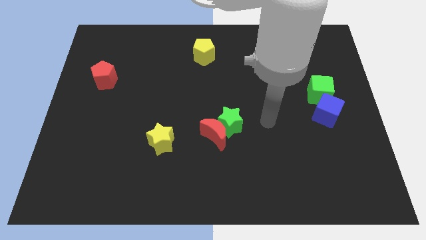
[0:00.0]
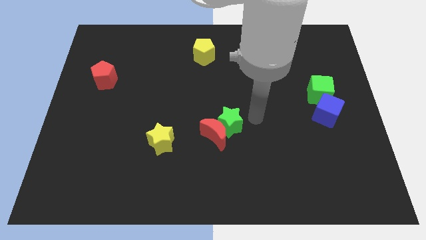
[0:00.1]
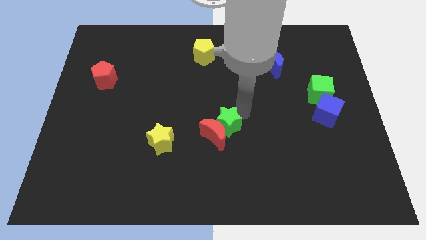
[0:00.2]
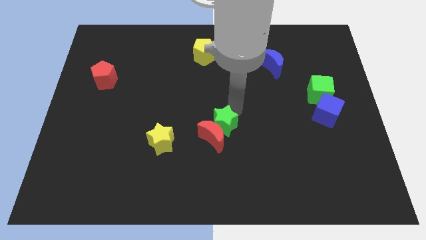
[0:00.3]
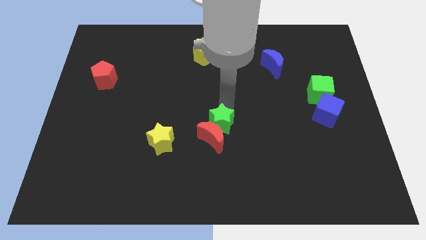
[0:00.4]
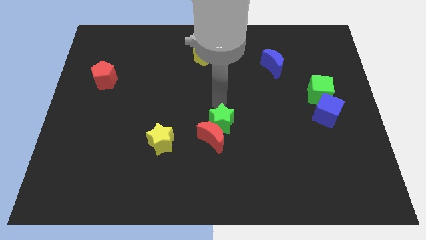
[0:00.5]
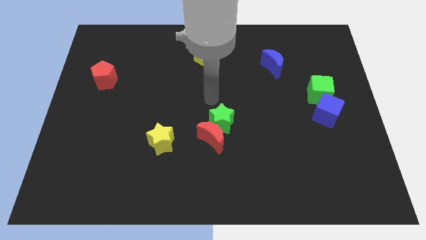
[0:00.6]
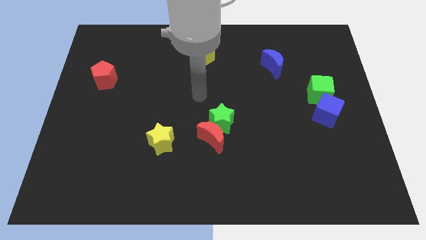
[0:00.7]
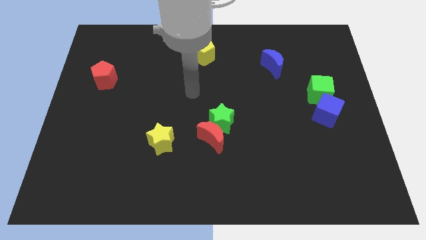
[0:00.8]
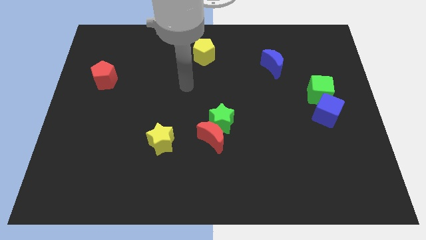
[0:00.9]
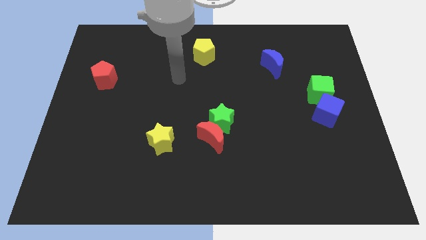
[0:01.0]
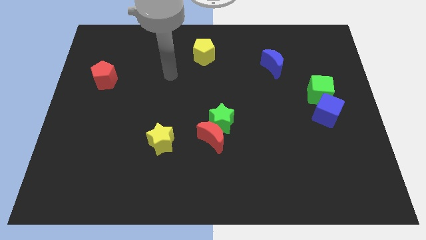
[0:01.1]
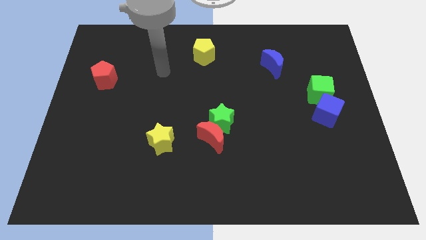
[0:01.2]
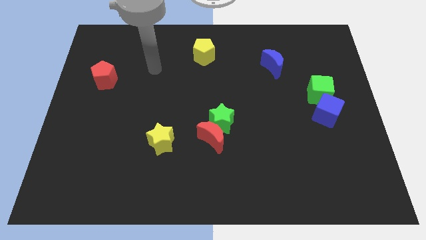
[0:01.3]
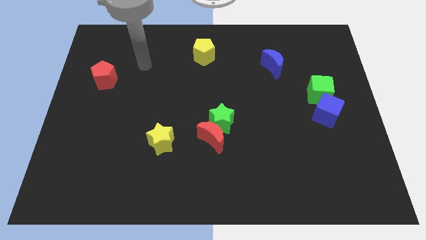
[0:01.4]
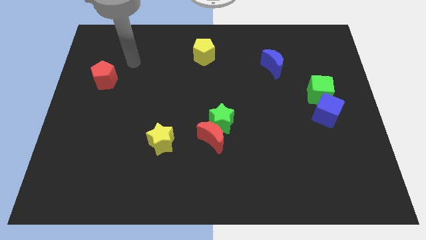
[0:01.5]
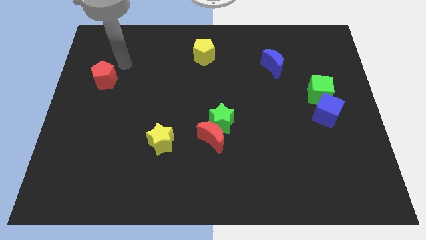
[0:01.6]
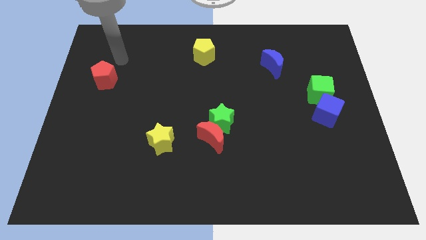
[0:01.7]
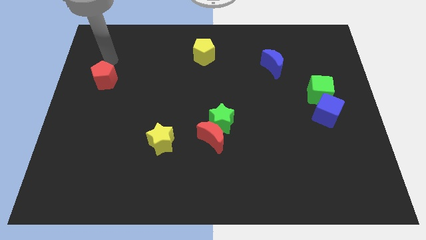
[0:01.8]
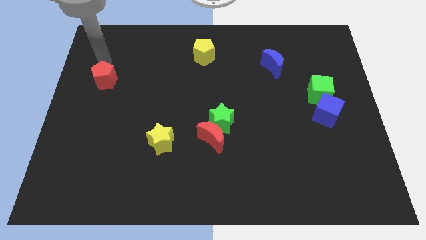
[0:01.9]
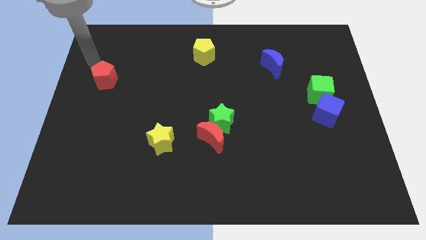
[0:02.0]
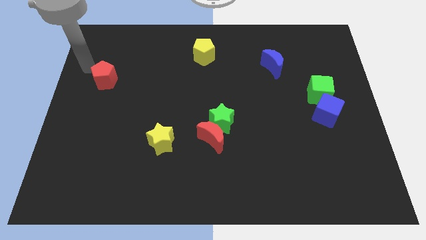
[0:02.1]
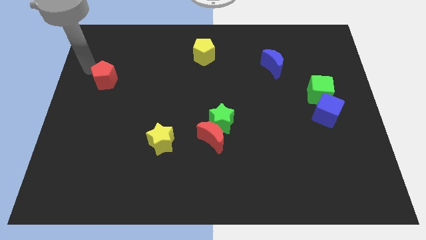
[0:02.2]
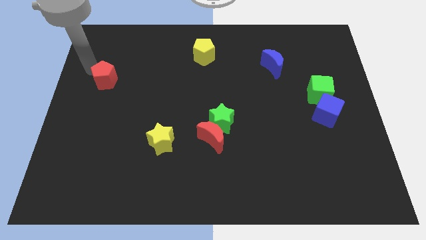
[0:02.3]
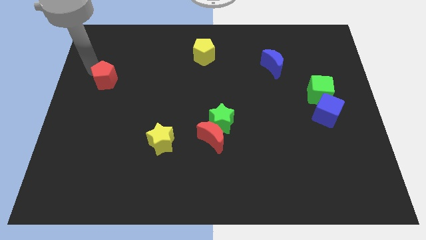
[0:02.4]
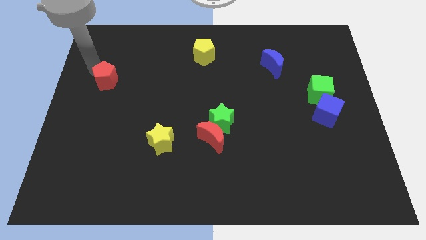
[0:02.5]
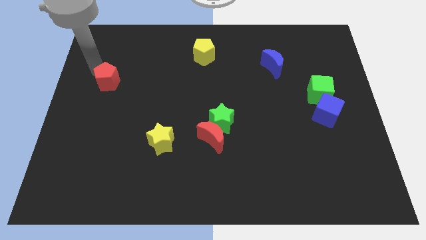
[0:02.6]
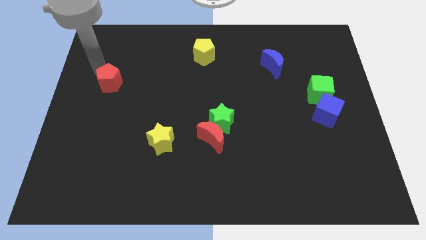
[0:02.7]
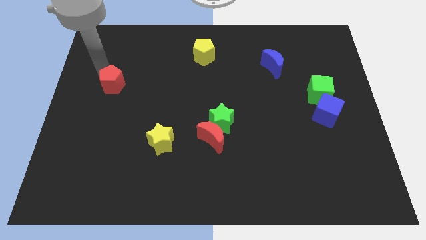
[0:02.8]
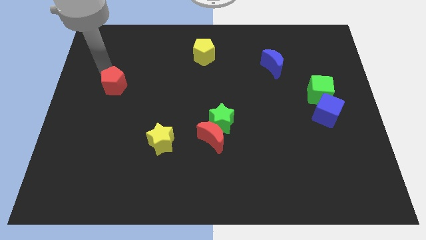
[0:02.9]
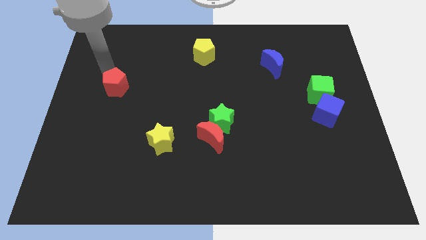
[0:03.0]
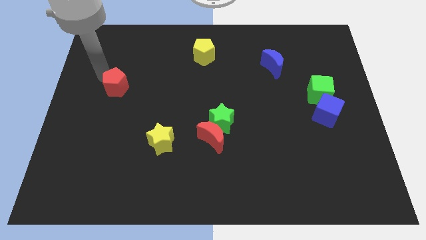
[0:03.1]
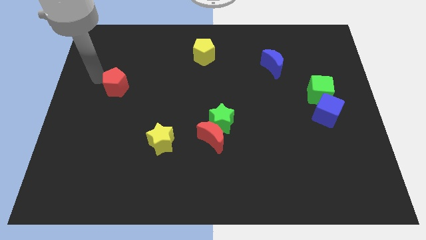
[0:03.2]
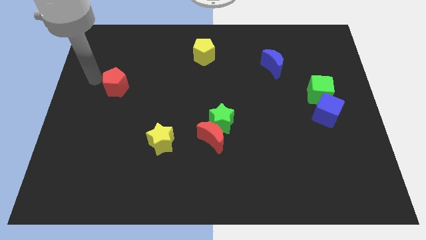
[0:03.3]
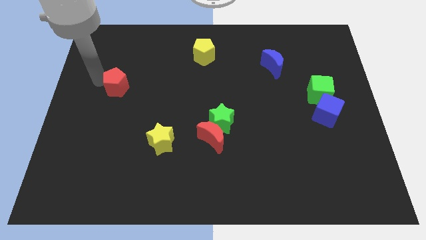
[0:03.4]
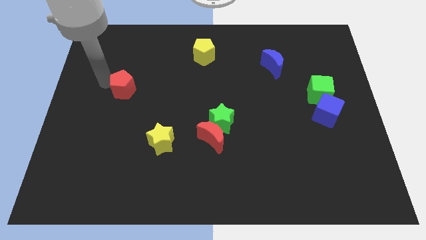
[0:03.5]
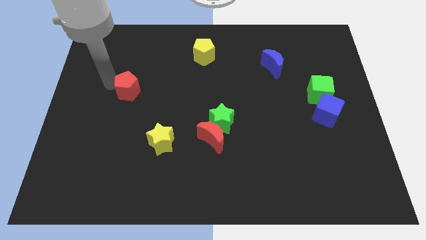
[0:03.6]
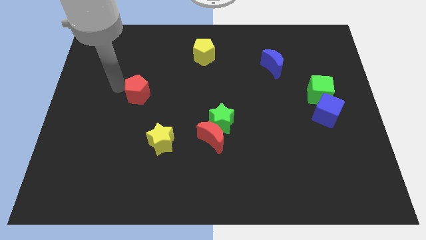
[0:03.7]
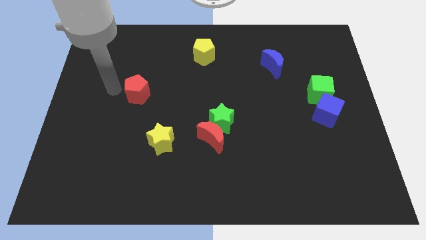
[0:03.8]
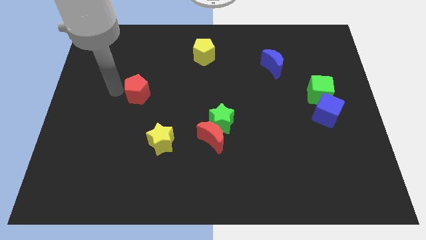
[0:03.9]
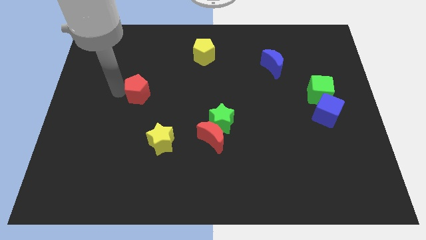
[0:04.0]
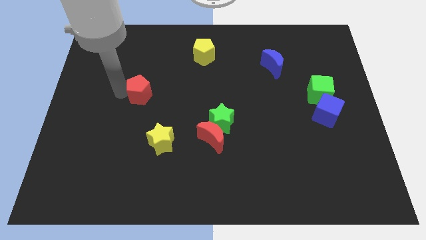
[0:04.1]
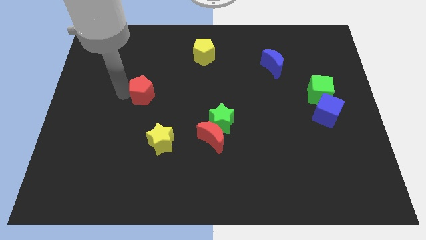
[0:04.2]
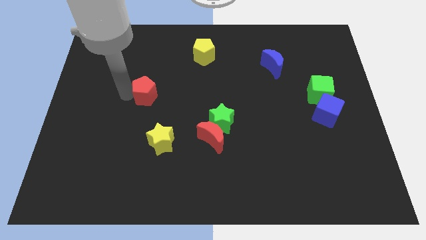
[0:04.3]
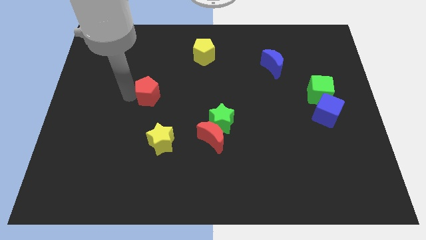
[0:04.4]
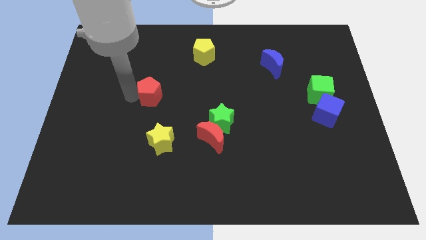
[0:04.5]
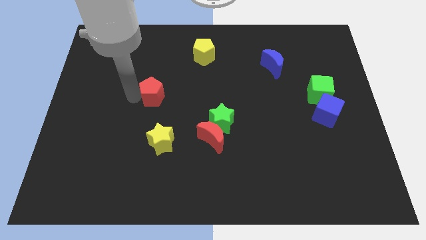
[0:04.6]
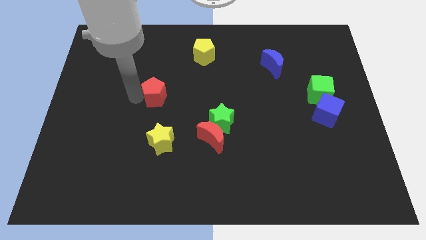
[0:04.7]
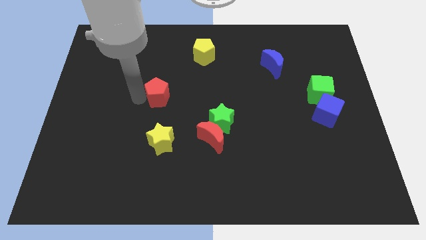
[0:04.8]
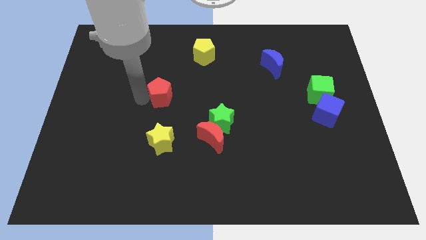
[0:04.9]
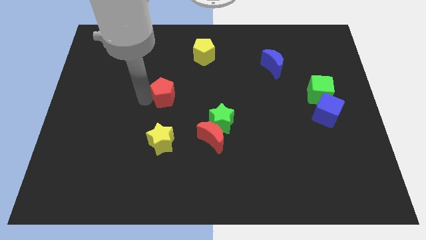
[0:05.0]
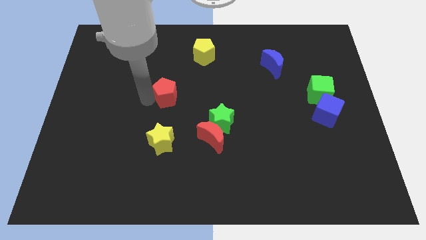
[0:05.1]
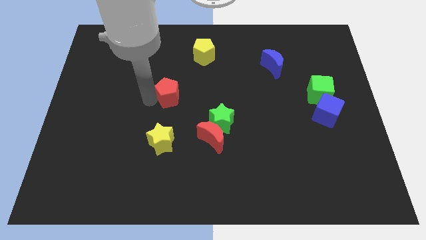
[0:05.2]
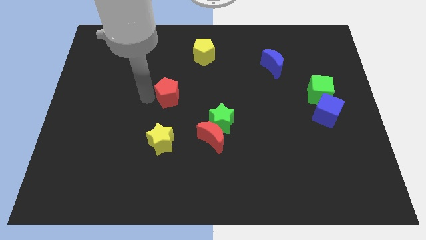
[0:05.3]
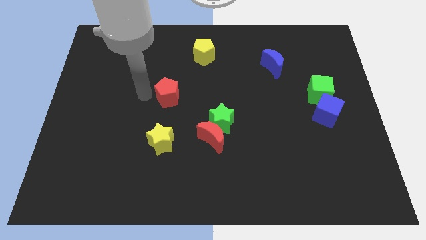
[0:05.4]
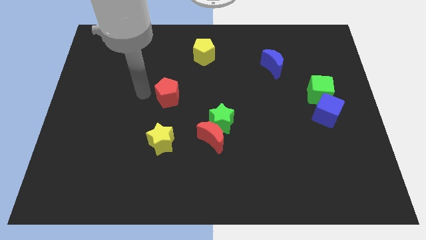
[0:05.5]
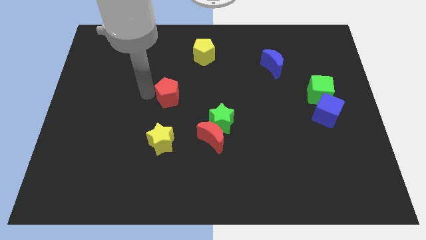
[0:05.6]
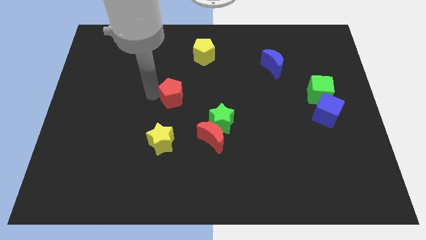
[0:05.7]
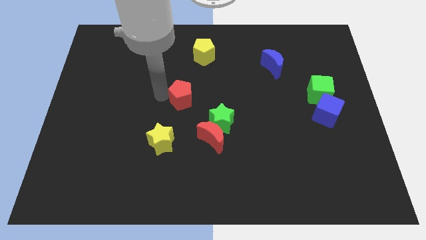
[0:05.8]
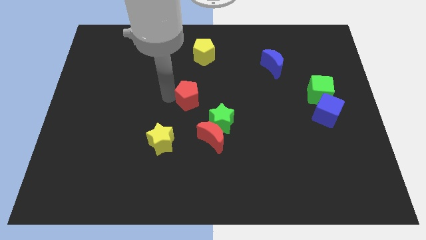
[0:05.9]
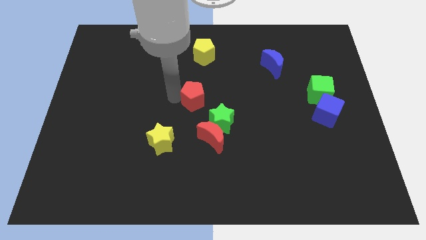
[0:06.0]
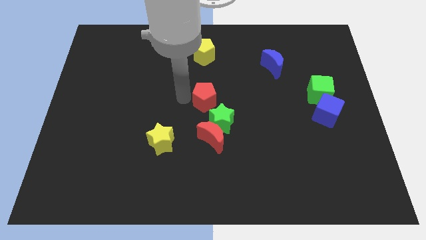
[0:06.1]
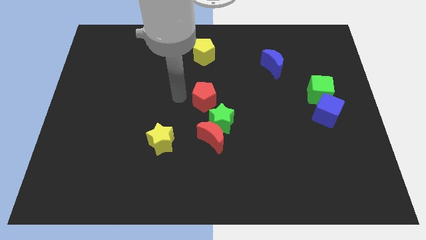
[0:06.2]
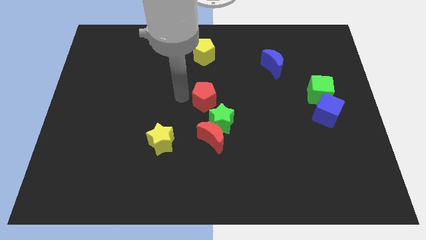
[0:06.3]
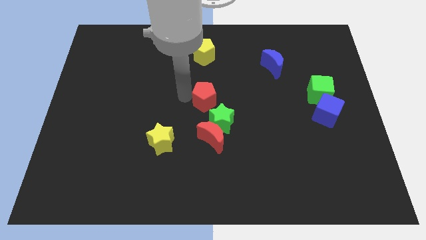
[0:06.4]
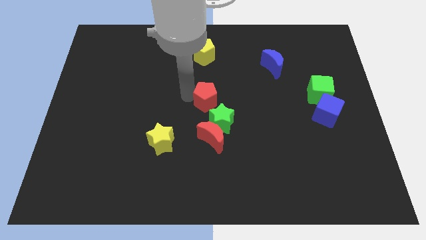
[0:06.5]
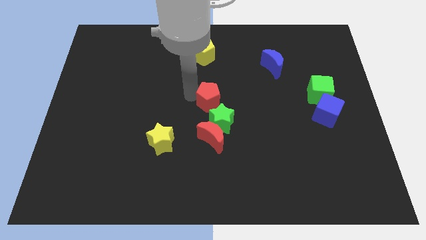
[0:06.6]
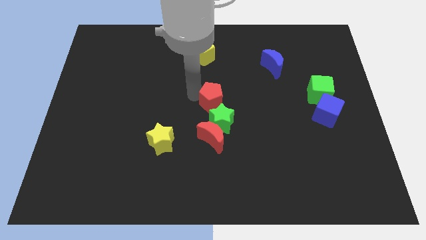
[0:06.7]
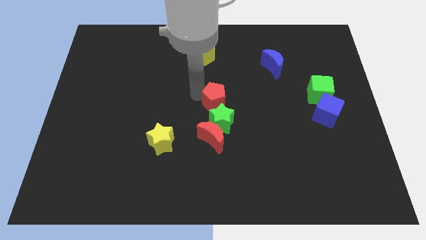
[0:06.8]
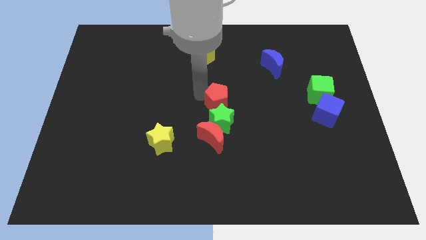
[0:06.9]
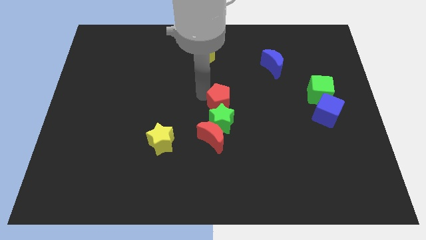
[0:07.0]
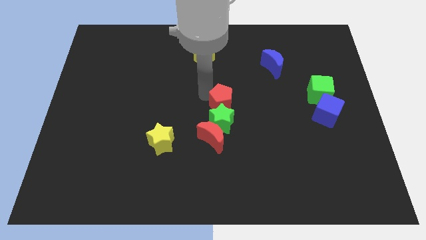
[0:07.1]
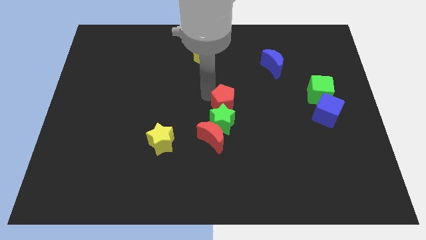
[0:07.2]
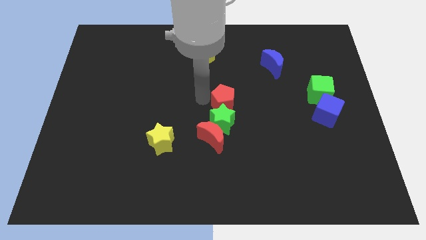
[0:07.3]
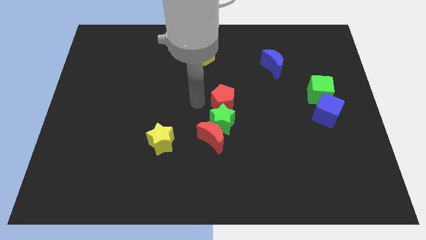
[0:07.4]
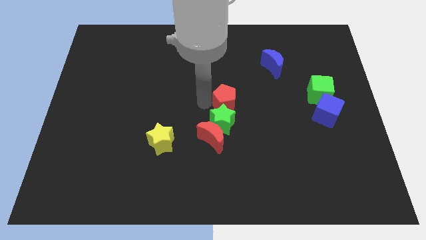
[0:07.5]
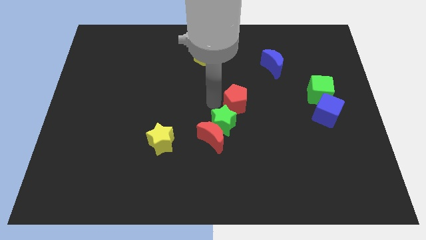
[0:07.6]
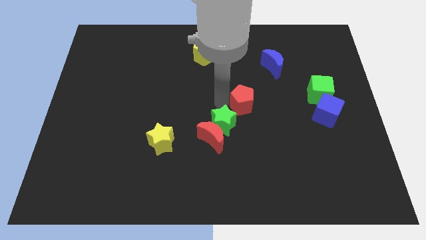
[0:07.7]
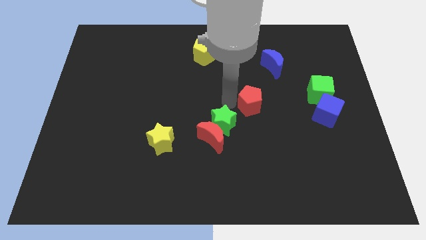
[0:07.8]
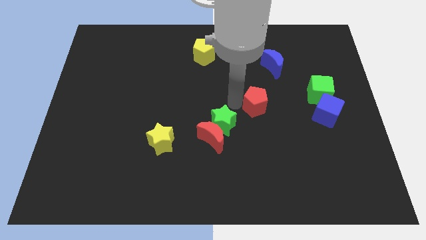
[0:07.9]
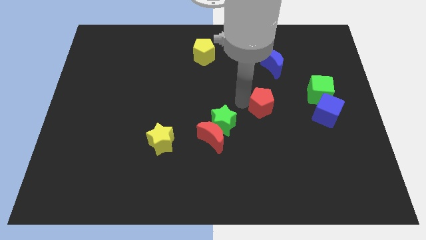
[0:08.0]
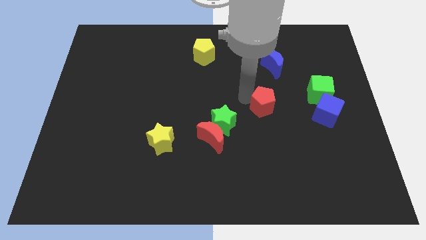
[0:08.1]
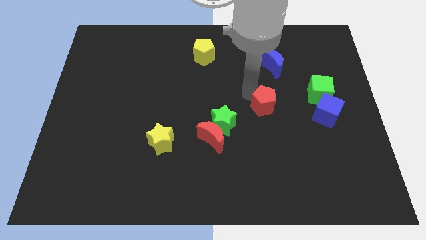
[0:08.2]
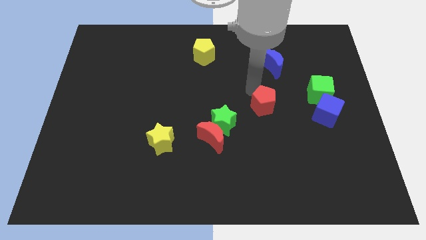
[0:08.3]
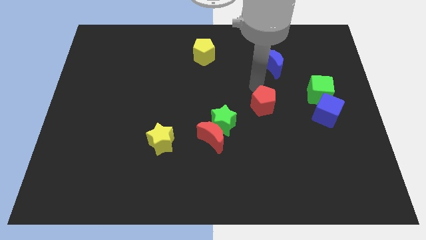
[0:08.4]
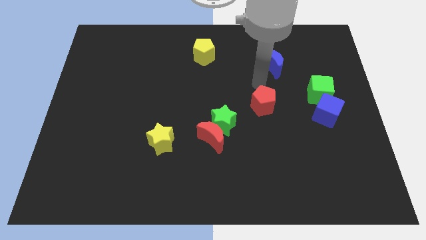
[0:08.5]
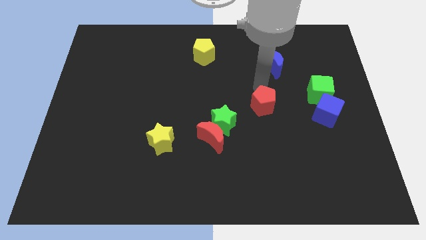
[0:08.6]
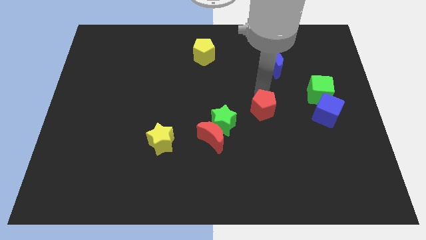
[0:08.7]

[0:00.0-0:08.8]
push the red pentagon to the right of the green star
